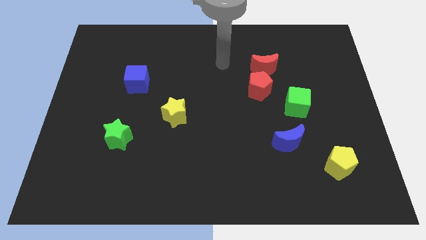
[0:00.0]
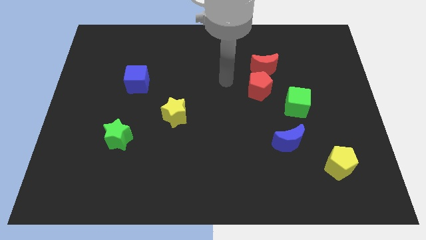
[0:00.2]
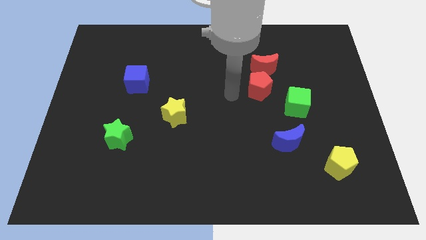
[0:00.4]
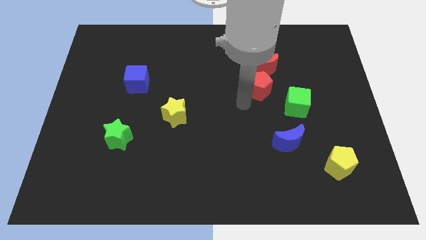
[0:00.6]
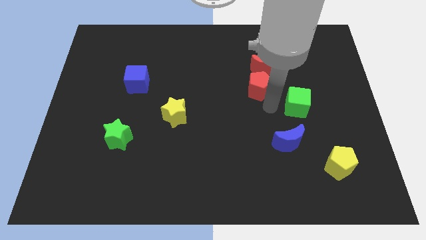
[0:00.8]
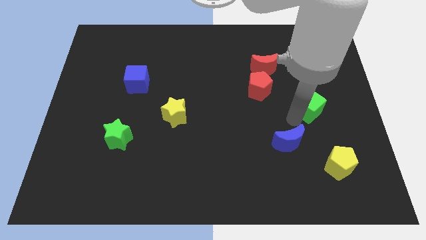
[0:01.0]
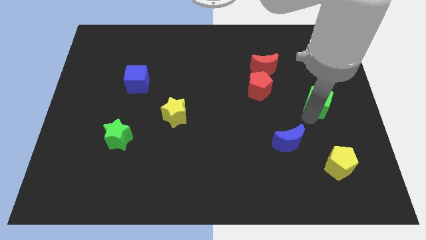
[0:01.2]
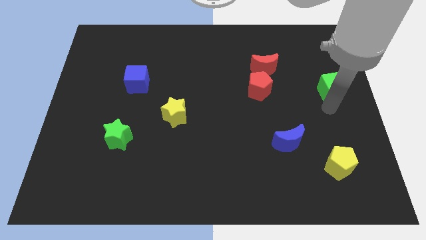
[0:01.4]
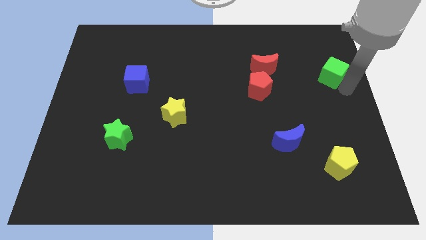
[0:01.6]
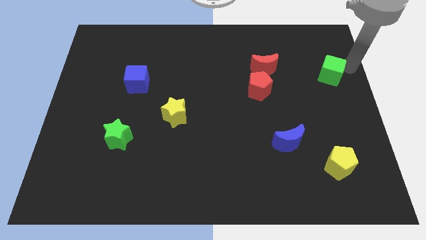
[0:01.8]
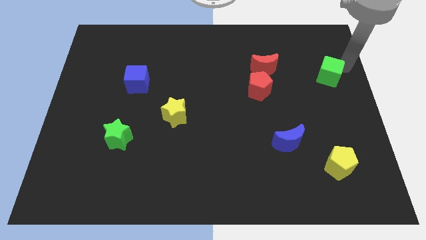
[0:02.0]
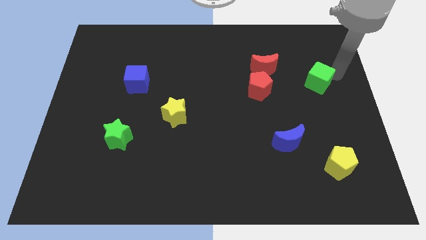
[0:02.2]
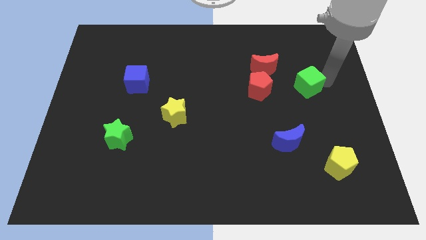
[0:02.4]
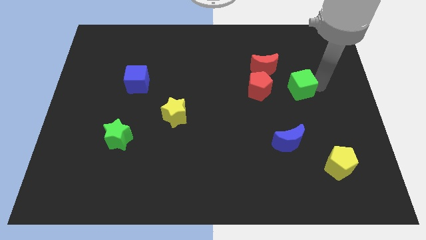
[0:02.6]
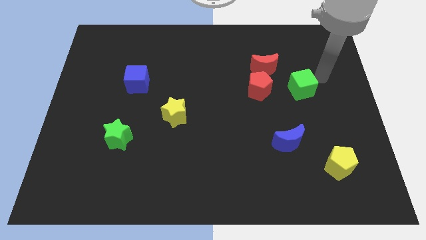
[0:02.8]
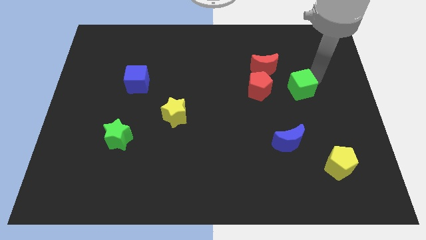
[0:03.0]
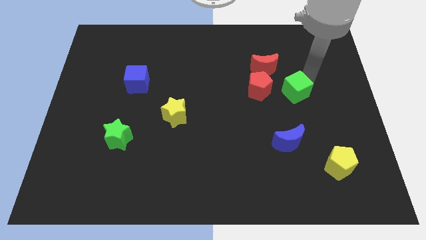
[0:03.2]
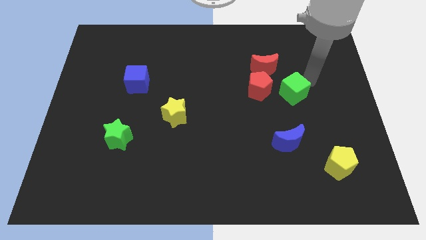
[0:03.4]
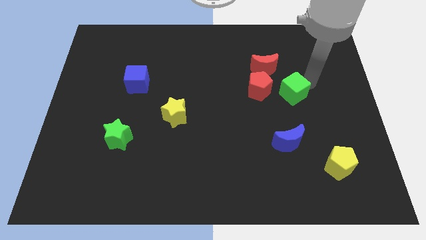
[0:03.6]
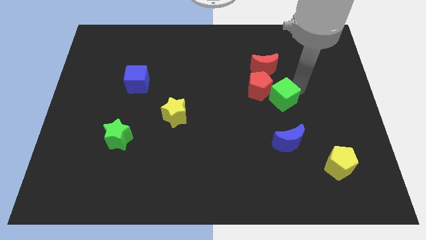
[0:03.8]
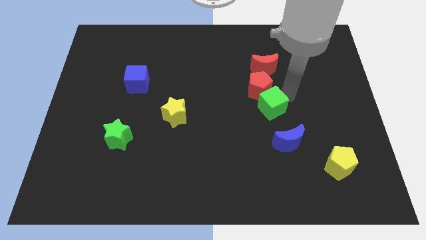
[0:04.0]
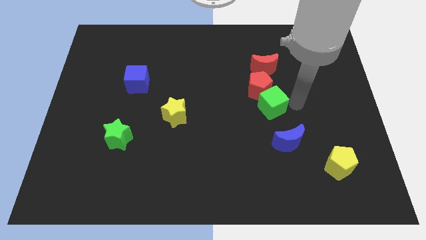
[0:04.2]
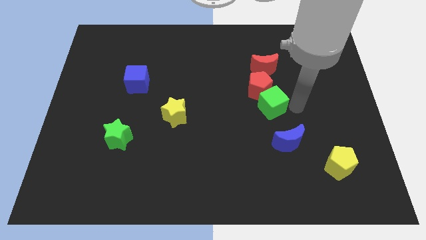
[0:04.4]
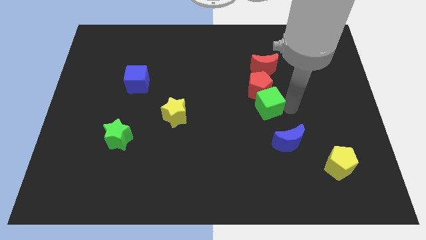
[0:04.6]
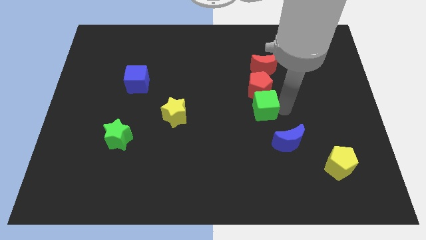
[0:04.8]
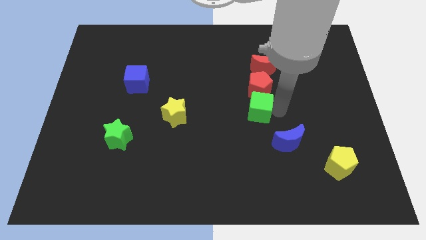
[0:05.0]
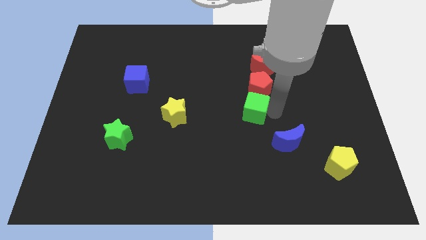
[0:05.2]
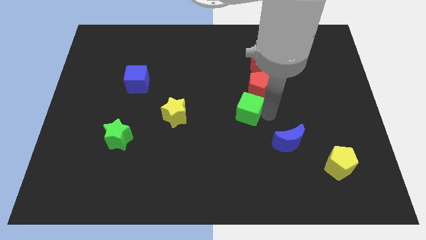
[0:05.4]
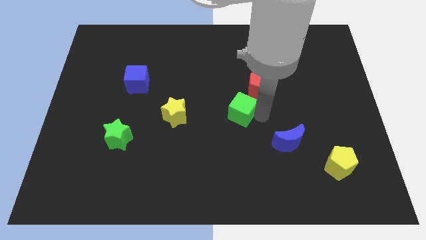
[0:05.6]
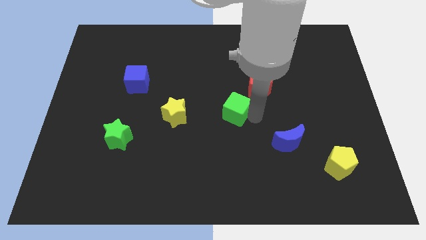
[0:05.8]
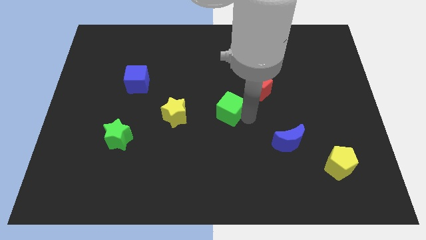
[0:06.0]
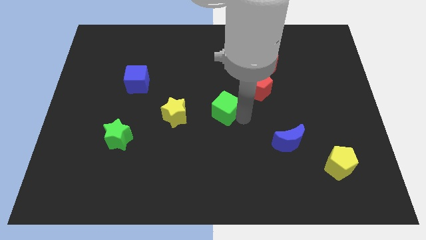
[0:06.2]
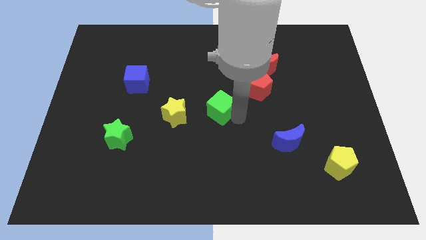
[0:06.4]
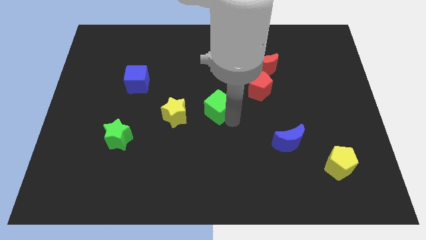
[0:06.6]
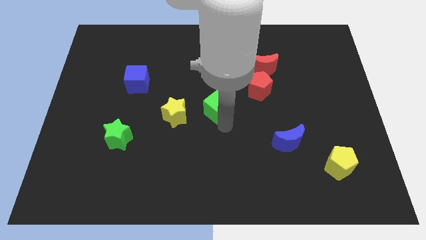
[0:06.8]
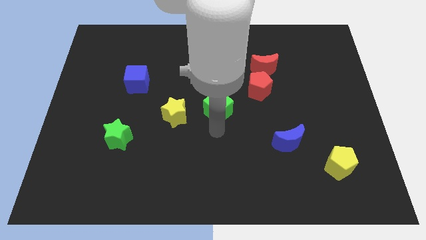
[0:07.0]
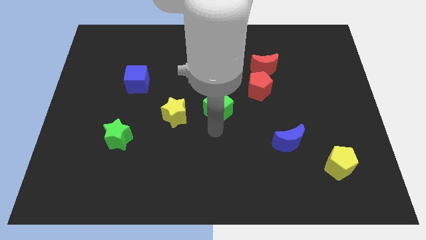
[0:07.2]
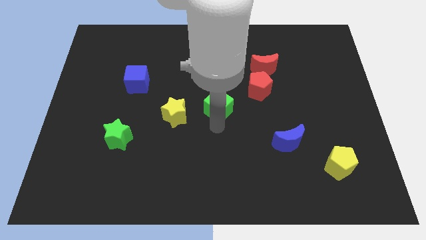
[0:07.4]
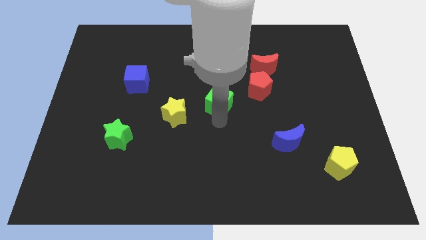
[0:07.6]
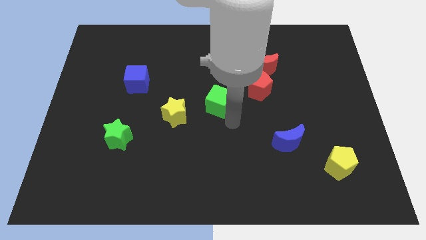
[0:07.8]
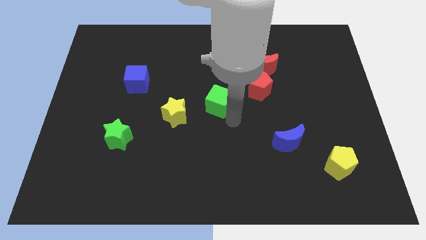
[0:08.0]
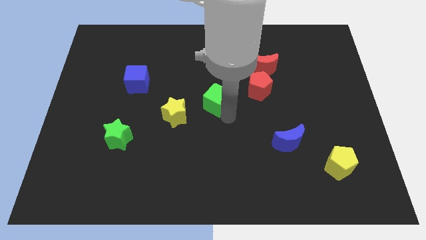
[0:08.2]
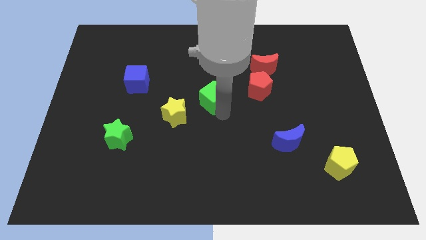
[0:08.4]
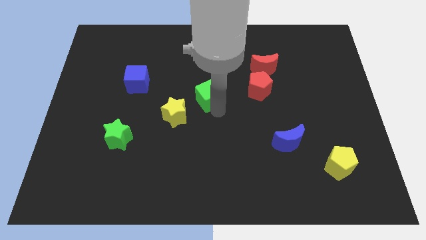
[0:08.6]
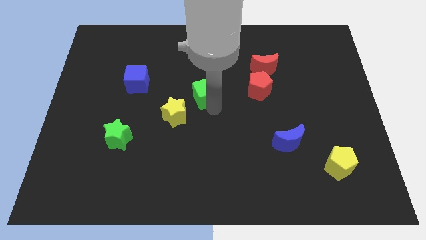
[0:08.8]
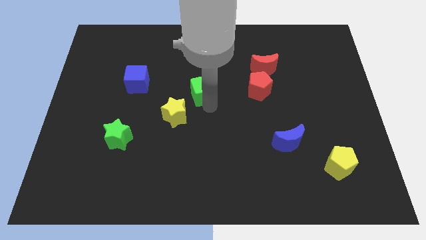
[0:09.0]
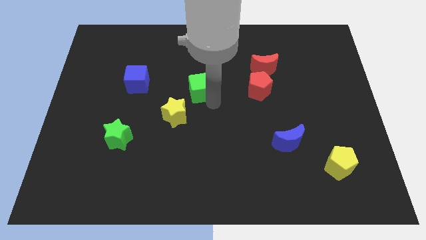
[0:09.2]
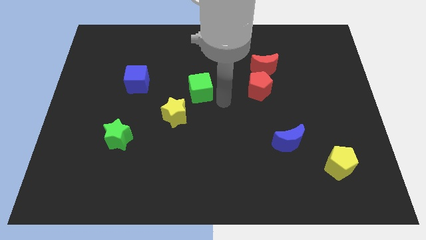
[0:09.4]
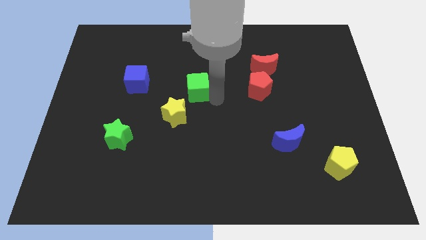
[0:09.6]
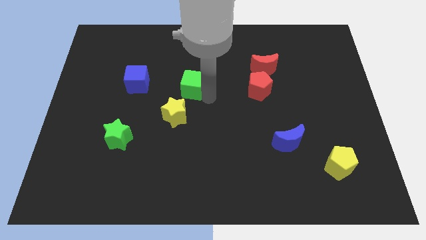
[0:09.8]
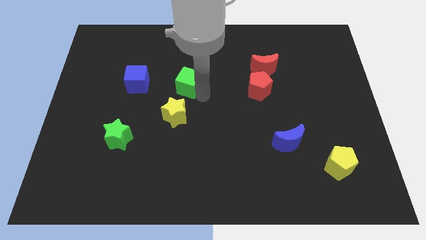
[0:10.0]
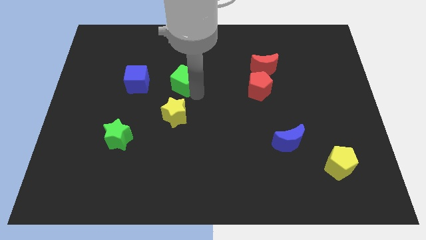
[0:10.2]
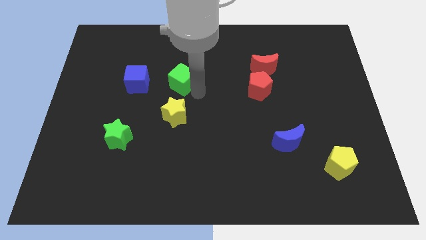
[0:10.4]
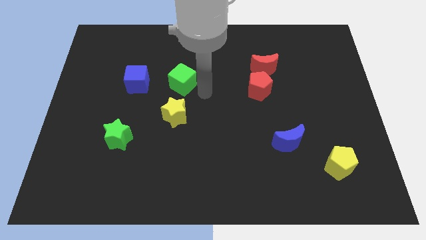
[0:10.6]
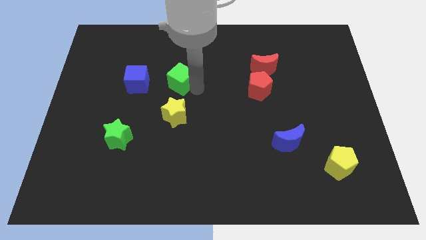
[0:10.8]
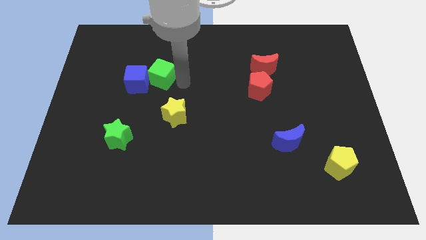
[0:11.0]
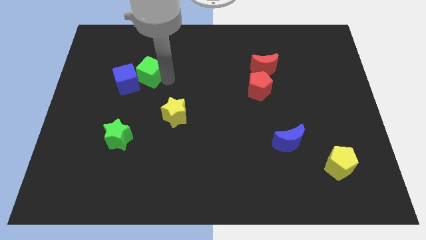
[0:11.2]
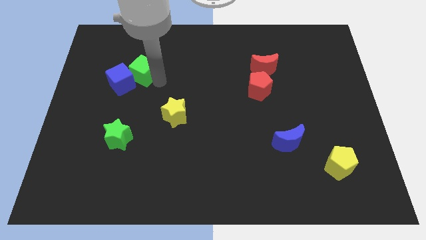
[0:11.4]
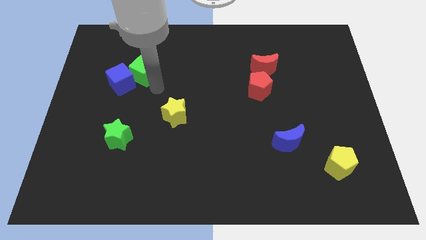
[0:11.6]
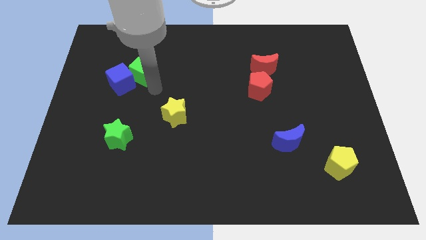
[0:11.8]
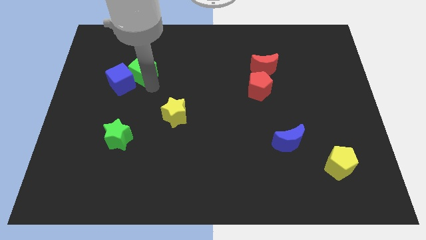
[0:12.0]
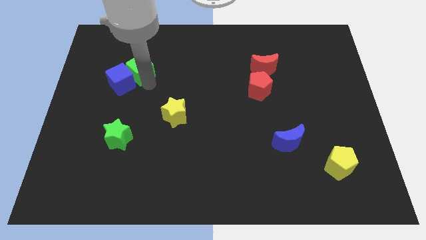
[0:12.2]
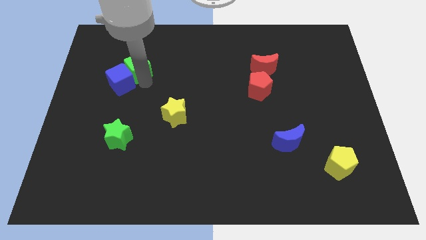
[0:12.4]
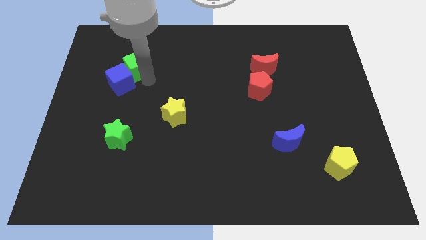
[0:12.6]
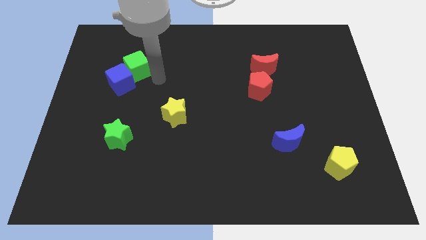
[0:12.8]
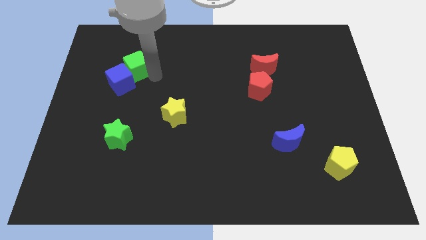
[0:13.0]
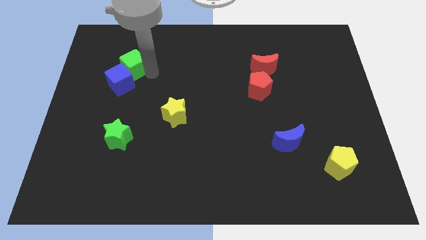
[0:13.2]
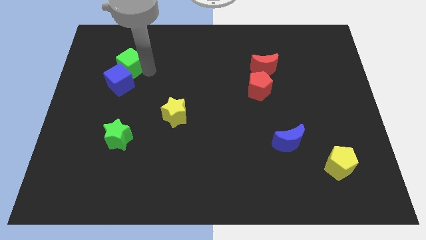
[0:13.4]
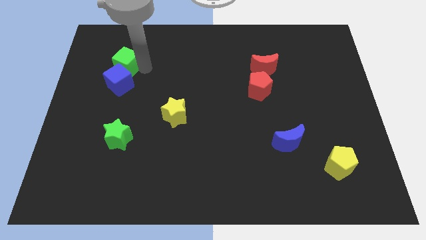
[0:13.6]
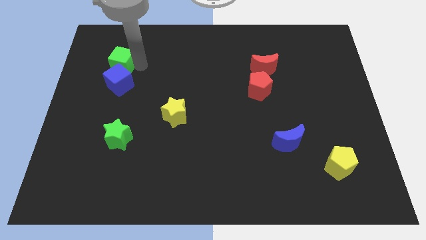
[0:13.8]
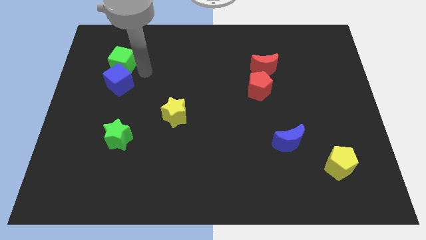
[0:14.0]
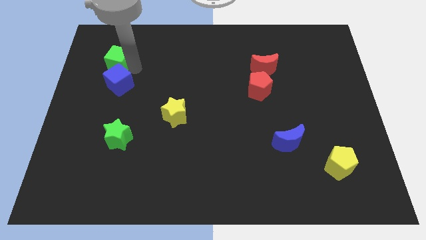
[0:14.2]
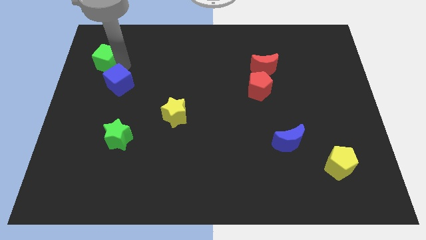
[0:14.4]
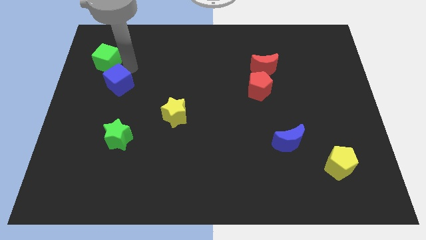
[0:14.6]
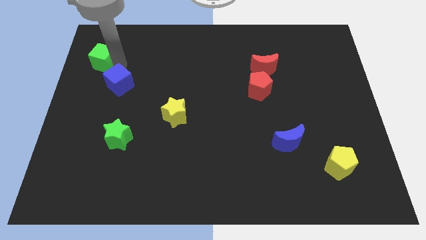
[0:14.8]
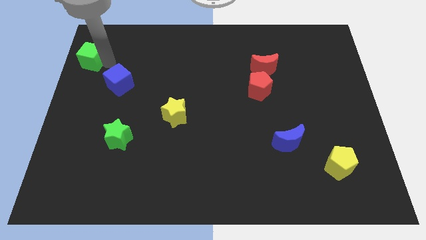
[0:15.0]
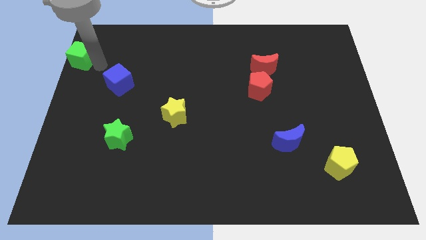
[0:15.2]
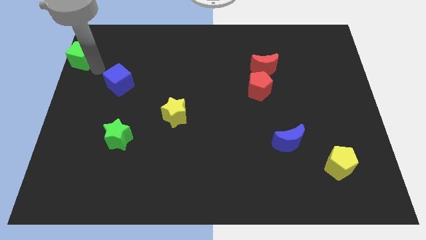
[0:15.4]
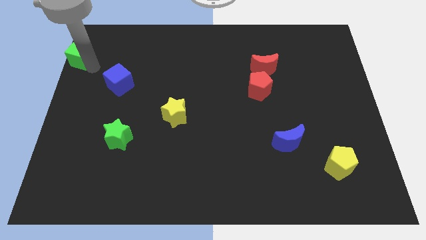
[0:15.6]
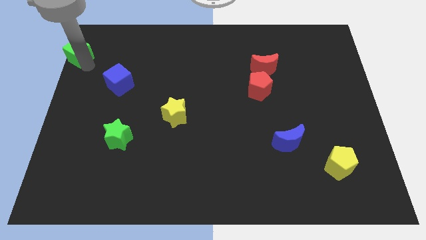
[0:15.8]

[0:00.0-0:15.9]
slide the green cube to the top left
